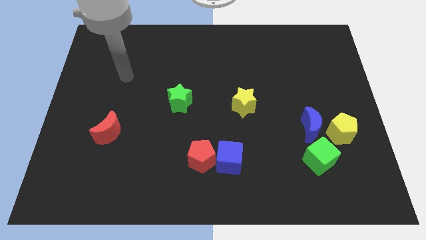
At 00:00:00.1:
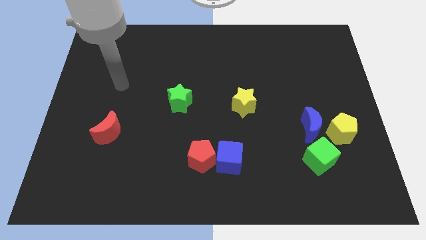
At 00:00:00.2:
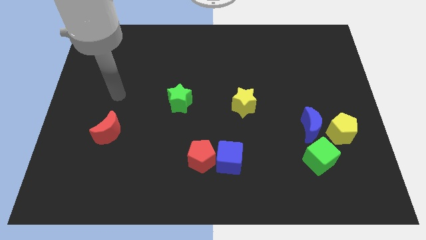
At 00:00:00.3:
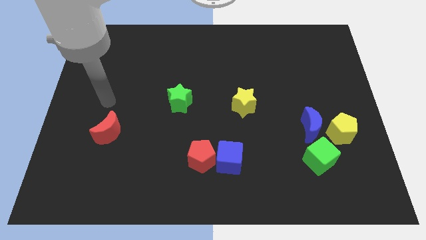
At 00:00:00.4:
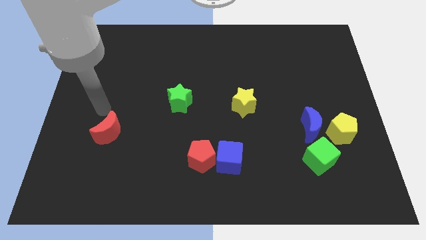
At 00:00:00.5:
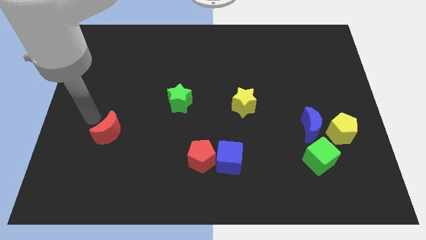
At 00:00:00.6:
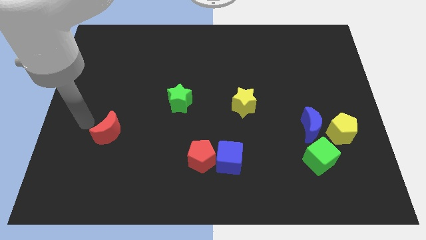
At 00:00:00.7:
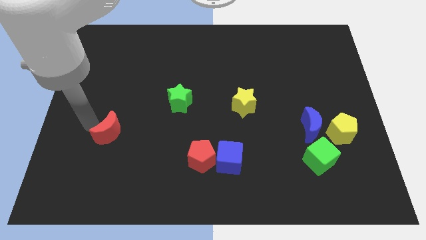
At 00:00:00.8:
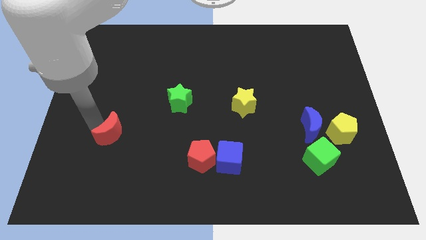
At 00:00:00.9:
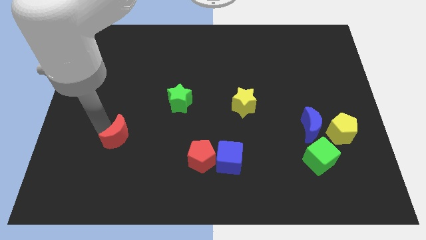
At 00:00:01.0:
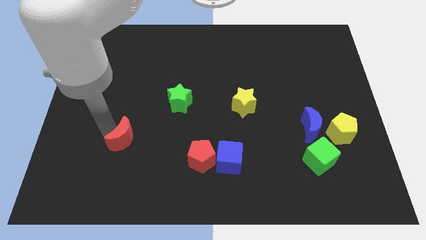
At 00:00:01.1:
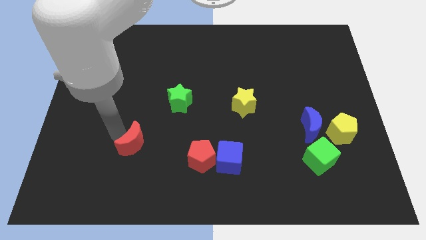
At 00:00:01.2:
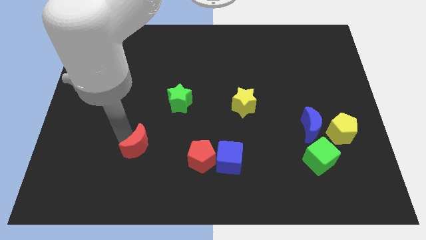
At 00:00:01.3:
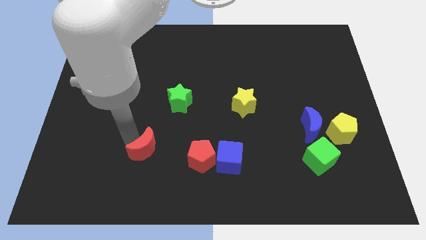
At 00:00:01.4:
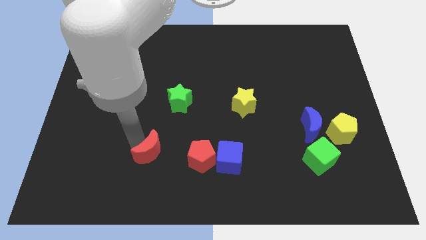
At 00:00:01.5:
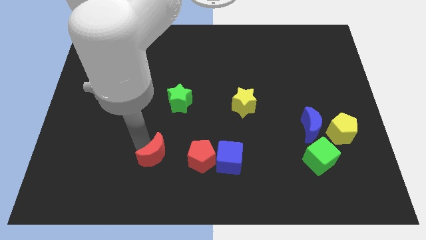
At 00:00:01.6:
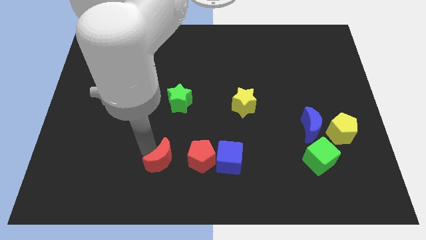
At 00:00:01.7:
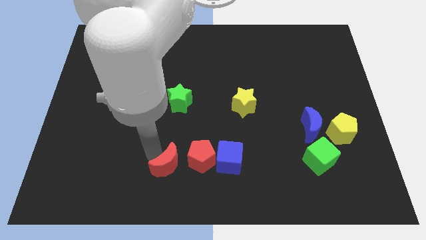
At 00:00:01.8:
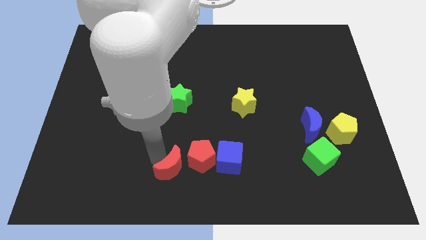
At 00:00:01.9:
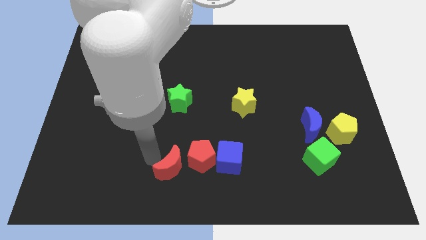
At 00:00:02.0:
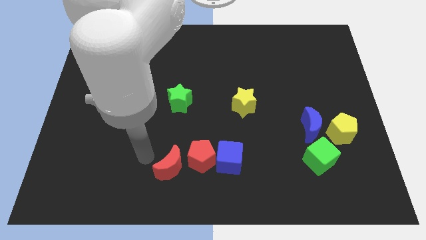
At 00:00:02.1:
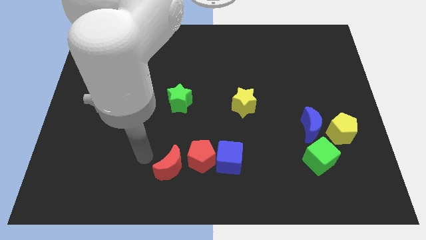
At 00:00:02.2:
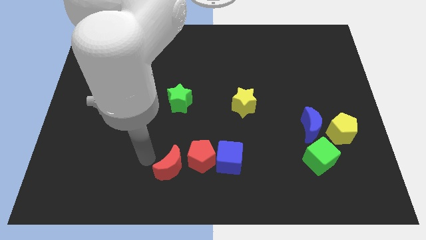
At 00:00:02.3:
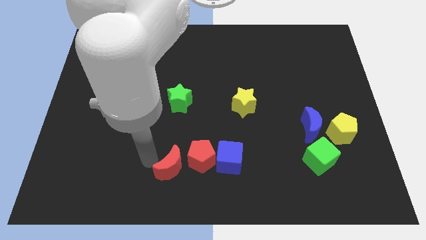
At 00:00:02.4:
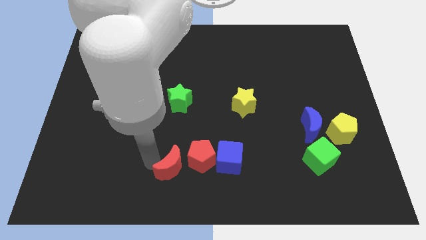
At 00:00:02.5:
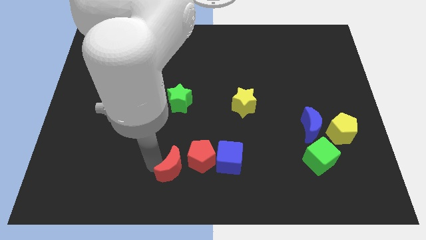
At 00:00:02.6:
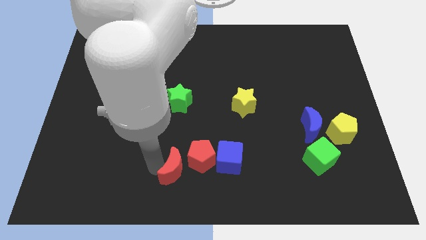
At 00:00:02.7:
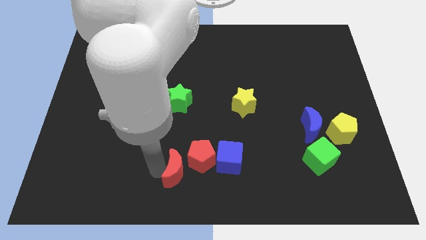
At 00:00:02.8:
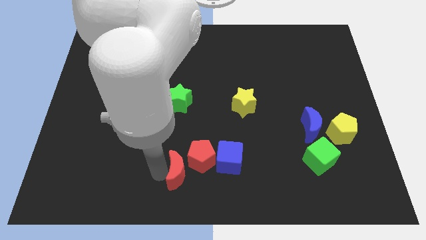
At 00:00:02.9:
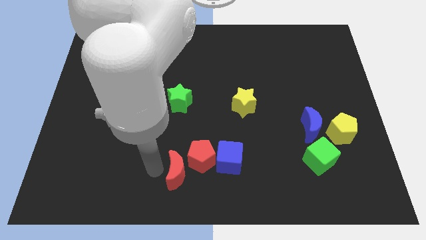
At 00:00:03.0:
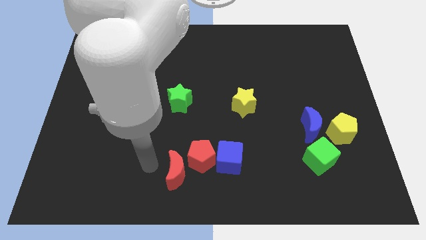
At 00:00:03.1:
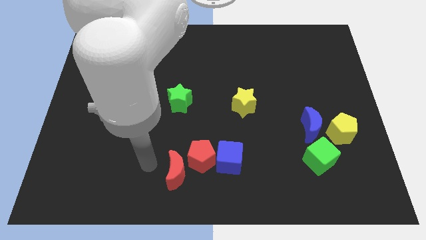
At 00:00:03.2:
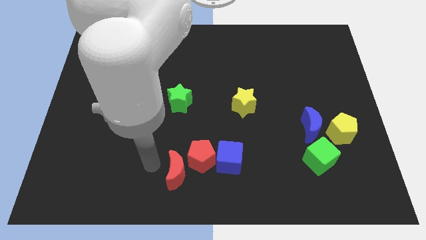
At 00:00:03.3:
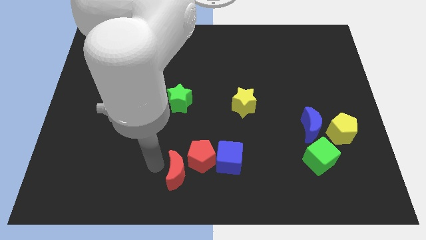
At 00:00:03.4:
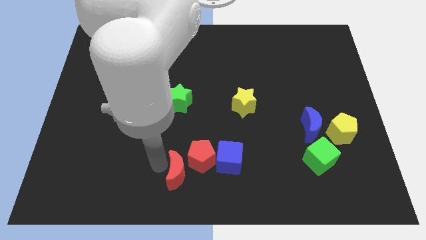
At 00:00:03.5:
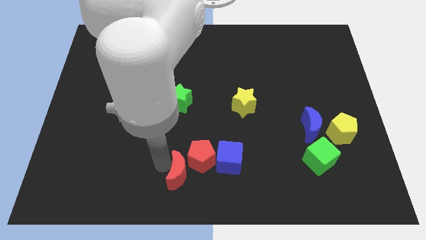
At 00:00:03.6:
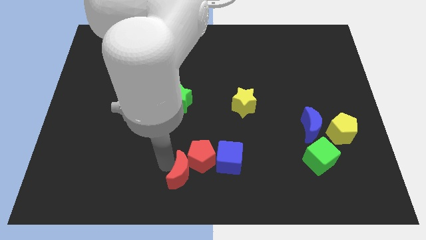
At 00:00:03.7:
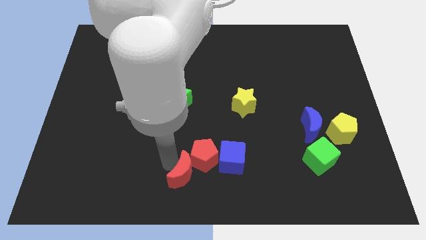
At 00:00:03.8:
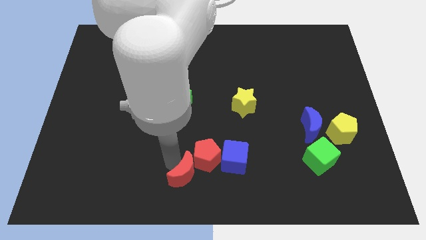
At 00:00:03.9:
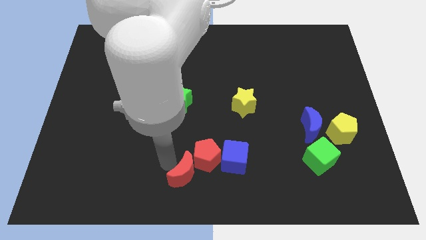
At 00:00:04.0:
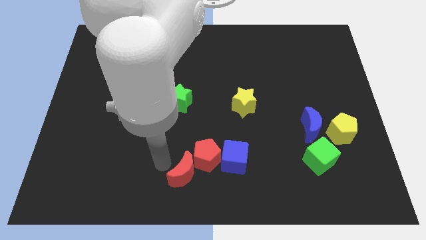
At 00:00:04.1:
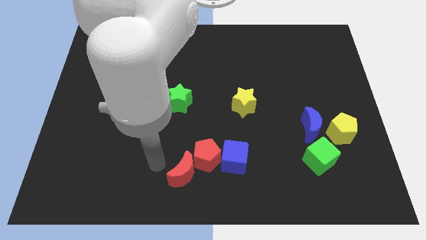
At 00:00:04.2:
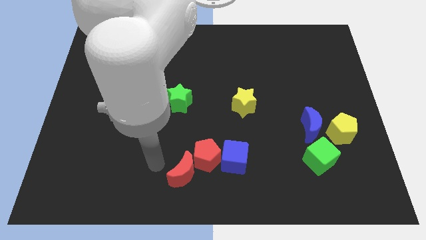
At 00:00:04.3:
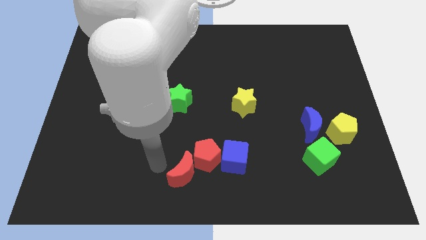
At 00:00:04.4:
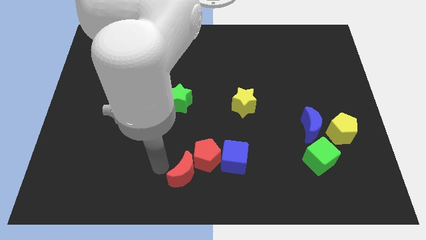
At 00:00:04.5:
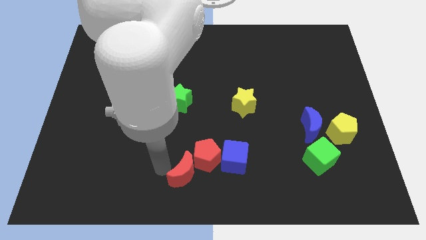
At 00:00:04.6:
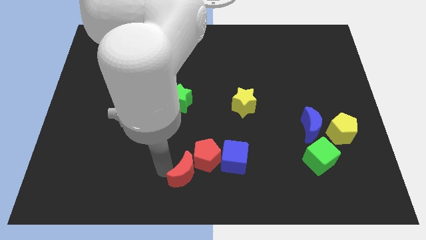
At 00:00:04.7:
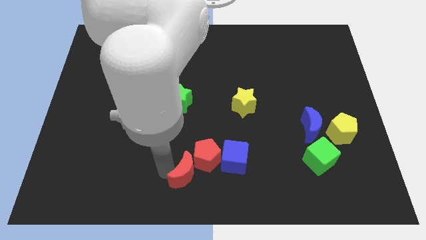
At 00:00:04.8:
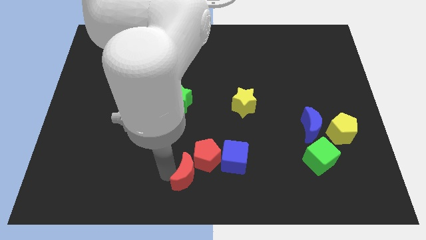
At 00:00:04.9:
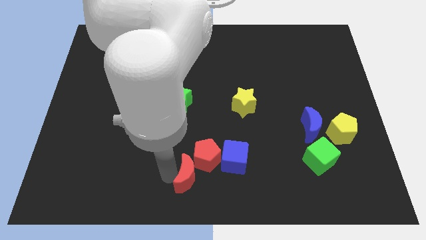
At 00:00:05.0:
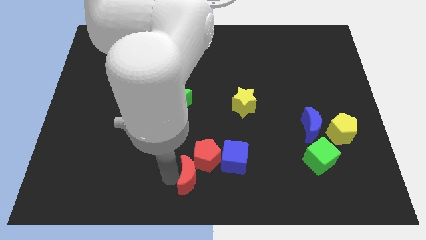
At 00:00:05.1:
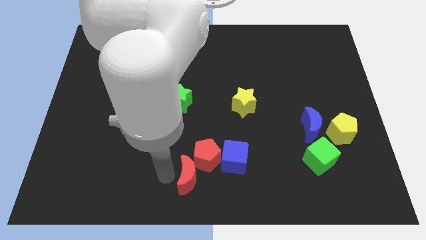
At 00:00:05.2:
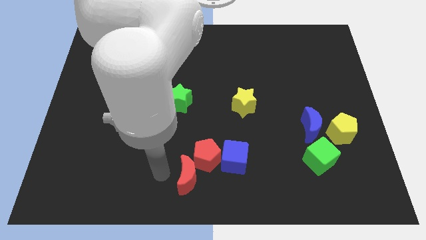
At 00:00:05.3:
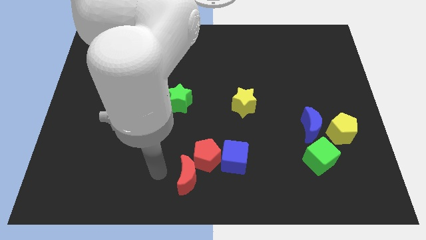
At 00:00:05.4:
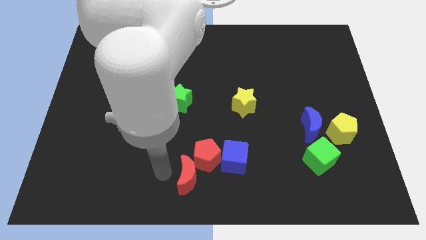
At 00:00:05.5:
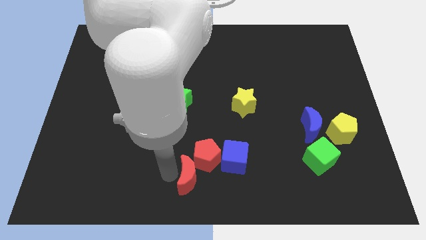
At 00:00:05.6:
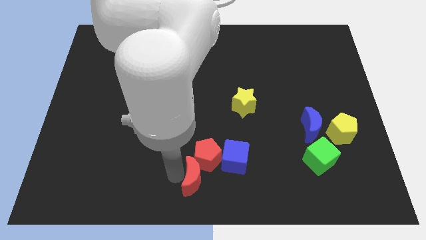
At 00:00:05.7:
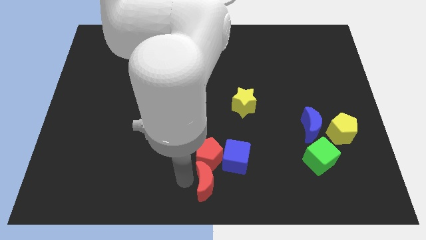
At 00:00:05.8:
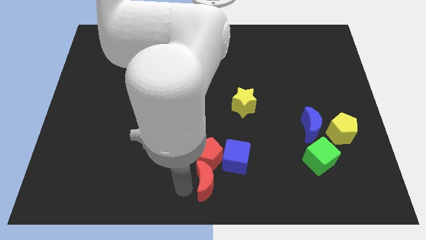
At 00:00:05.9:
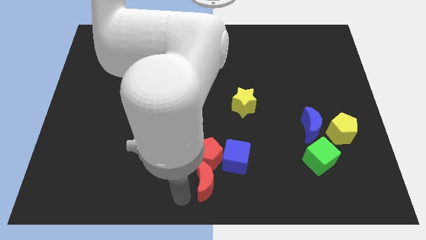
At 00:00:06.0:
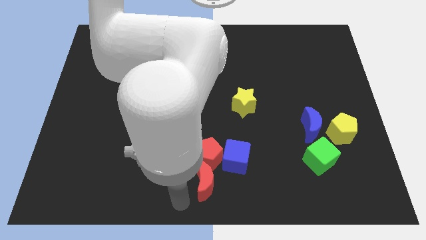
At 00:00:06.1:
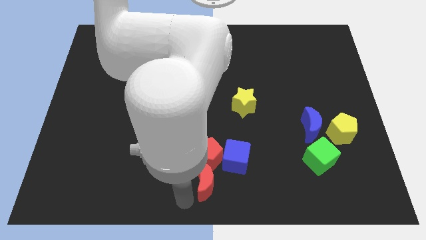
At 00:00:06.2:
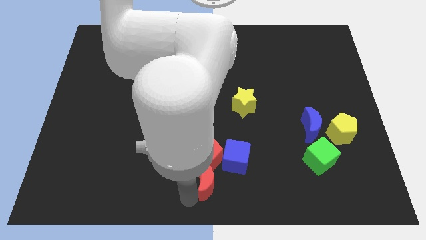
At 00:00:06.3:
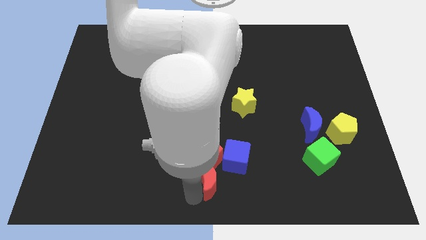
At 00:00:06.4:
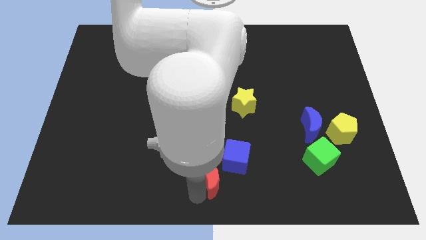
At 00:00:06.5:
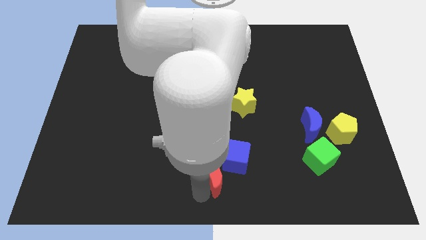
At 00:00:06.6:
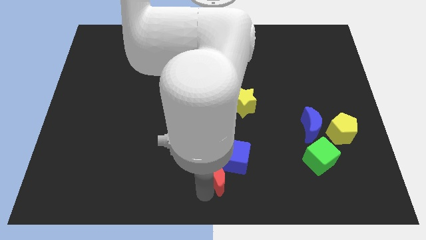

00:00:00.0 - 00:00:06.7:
slide the red moon next to the blue cube

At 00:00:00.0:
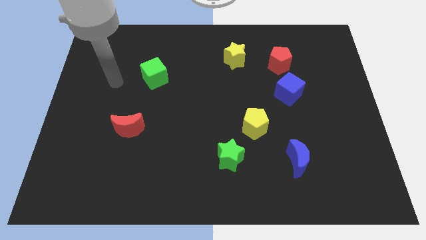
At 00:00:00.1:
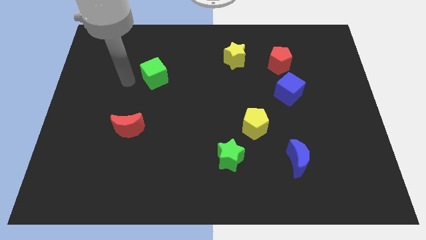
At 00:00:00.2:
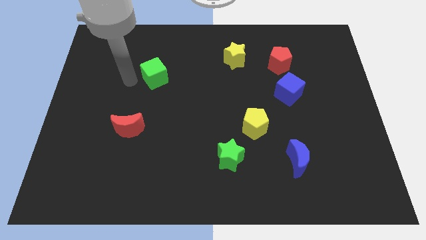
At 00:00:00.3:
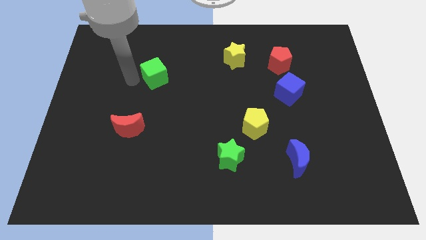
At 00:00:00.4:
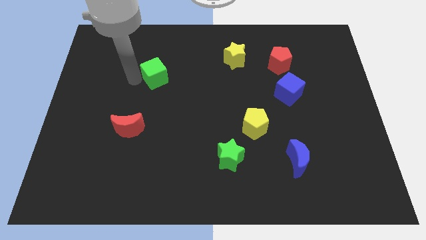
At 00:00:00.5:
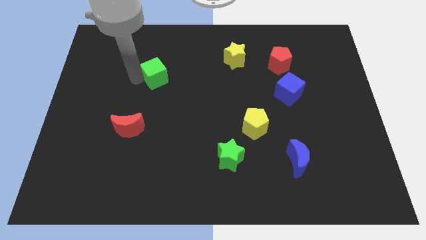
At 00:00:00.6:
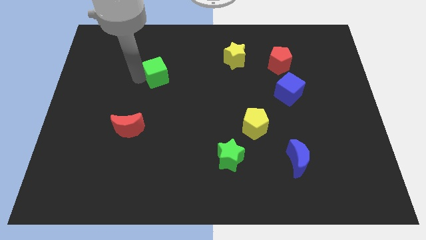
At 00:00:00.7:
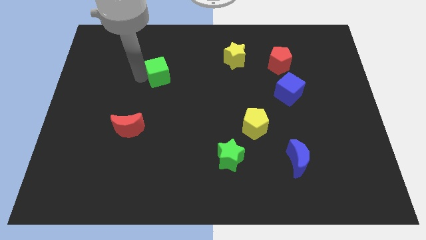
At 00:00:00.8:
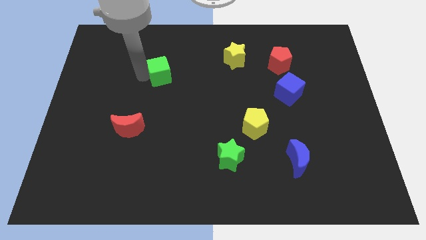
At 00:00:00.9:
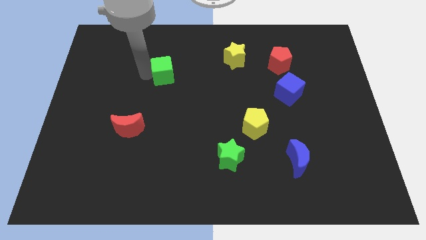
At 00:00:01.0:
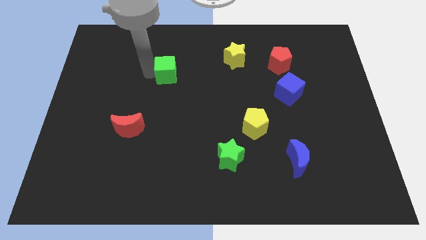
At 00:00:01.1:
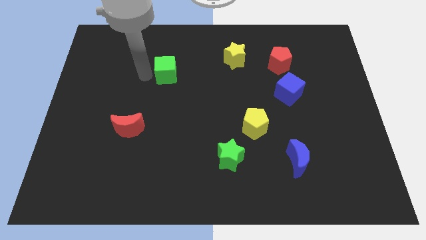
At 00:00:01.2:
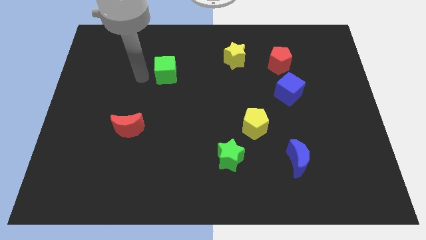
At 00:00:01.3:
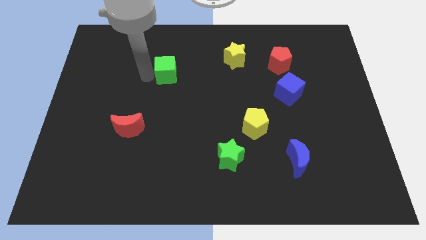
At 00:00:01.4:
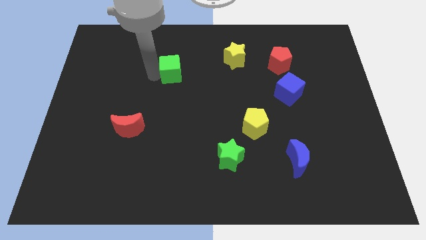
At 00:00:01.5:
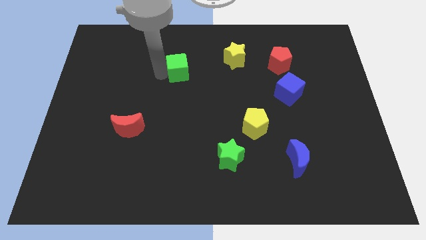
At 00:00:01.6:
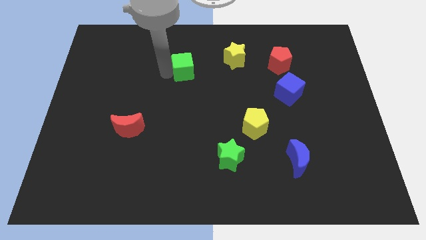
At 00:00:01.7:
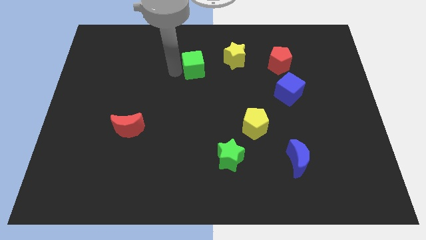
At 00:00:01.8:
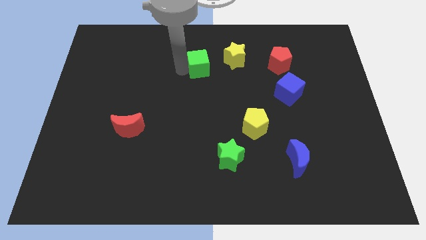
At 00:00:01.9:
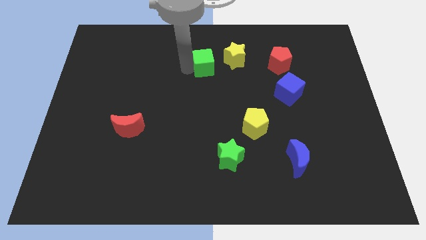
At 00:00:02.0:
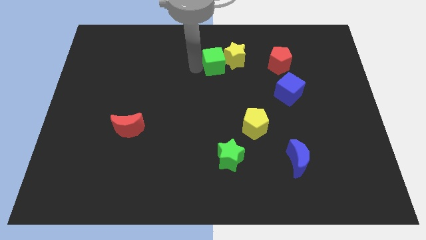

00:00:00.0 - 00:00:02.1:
slide the green cube close to the yellow star
